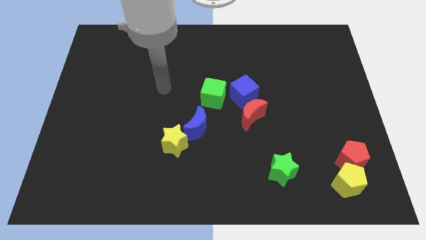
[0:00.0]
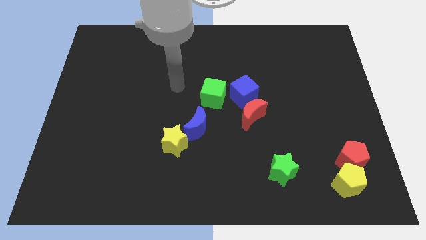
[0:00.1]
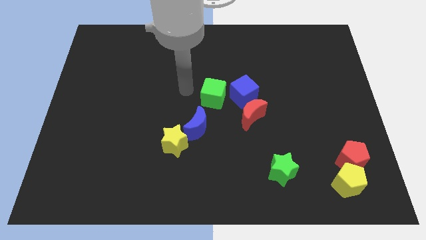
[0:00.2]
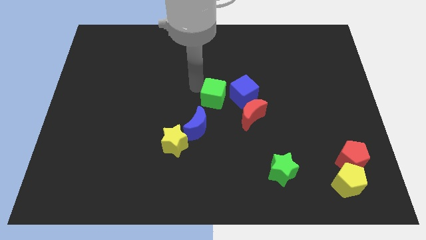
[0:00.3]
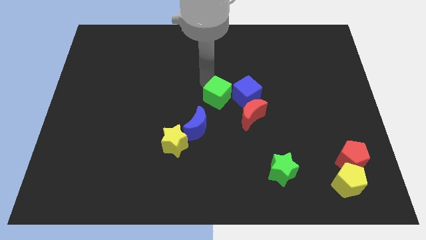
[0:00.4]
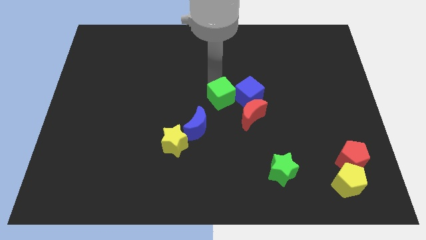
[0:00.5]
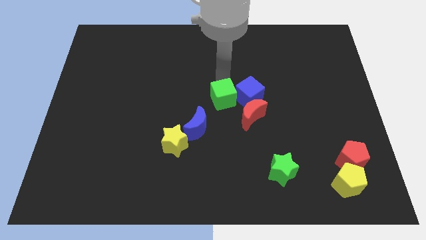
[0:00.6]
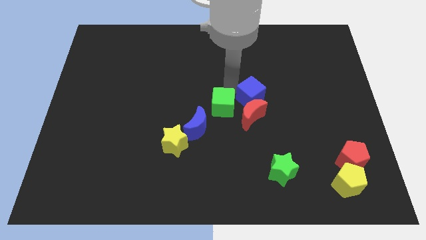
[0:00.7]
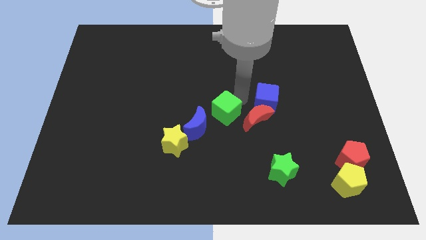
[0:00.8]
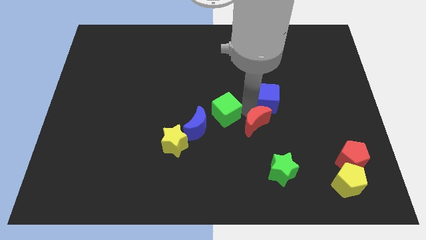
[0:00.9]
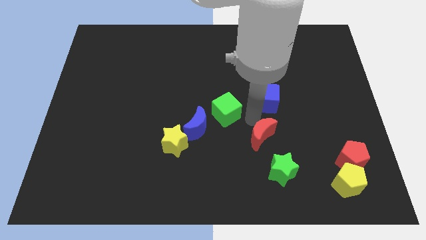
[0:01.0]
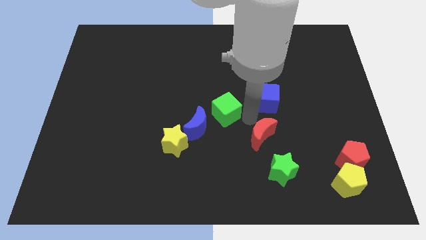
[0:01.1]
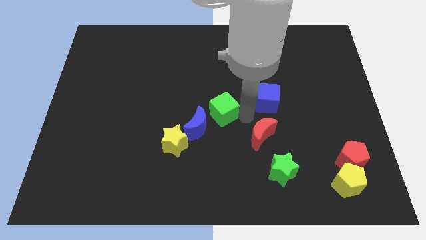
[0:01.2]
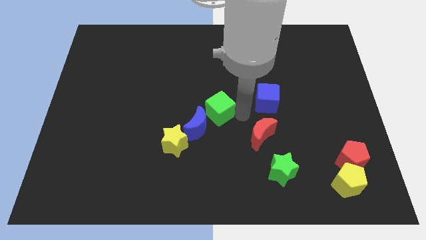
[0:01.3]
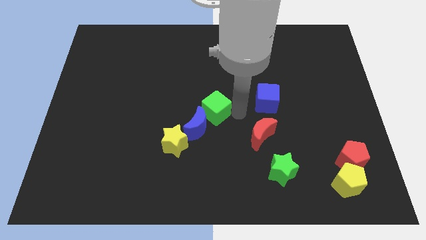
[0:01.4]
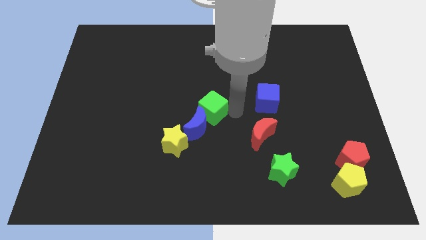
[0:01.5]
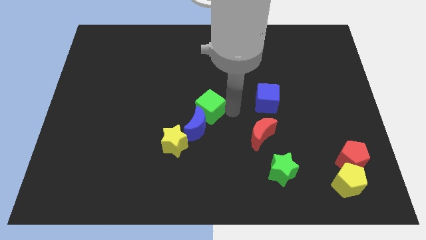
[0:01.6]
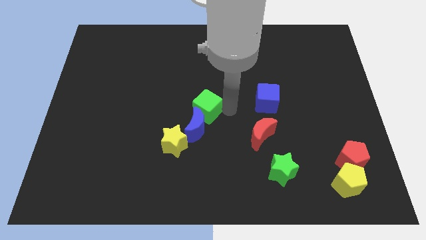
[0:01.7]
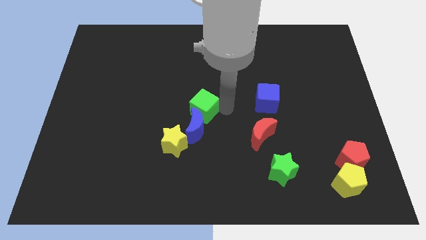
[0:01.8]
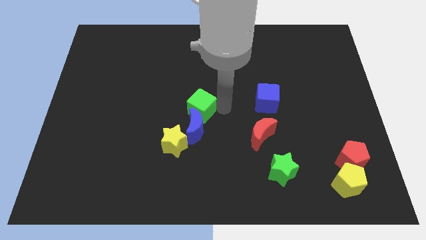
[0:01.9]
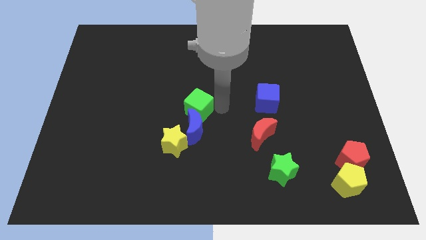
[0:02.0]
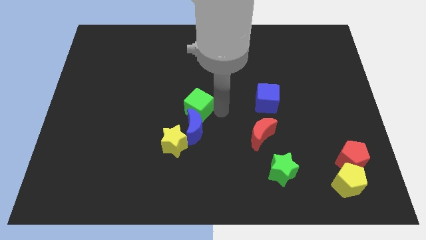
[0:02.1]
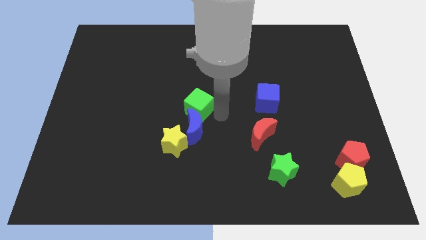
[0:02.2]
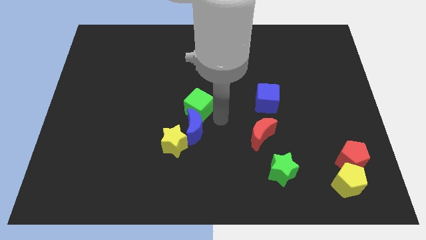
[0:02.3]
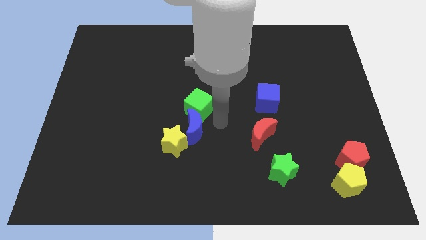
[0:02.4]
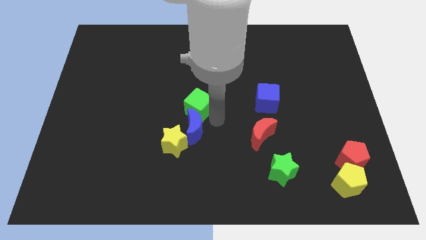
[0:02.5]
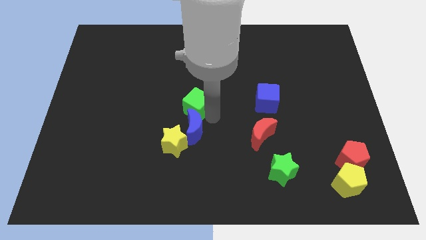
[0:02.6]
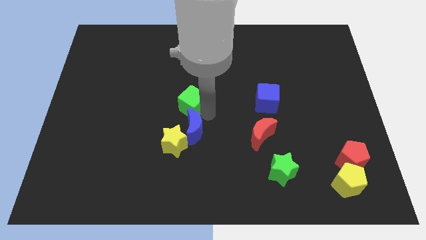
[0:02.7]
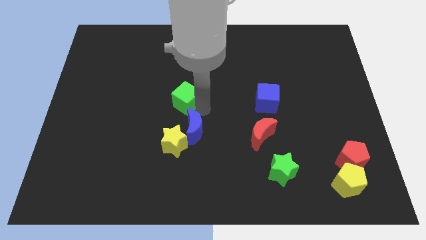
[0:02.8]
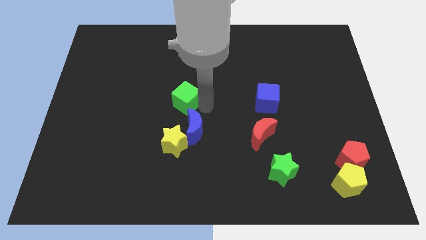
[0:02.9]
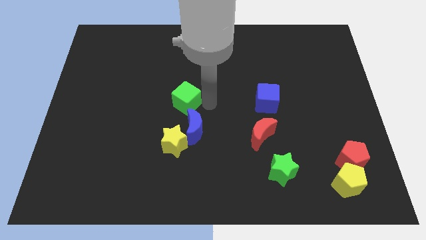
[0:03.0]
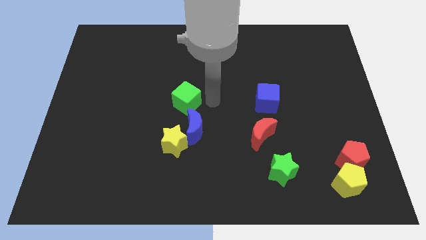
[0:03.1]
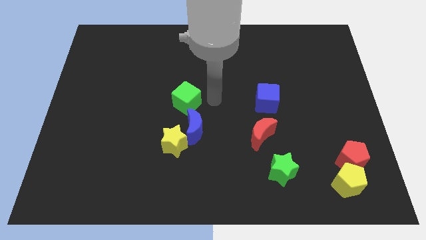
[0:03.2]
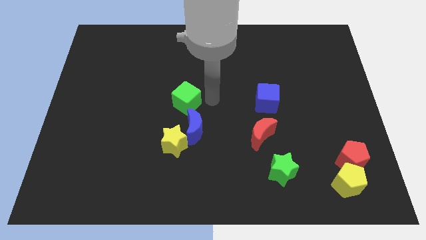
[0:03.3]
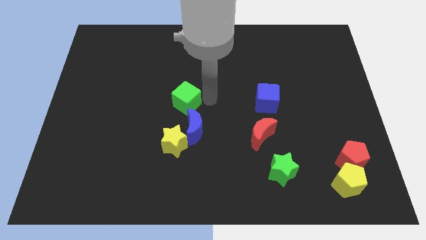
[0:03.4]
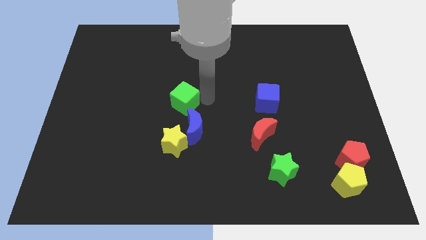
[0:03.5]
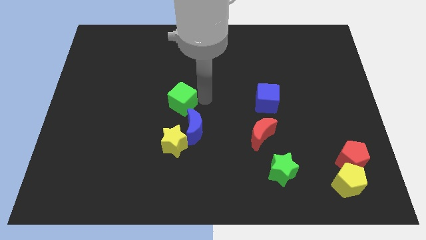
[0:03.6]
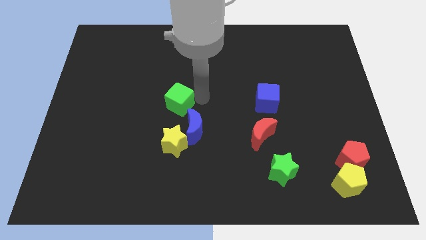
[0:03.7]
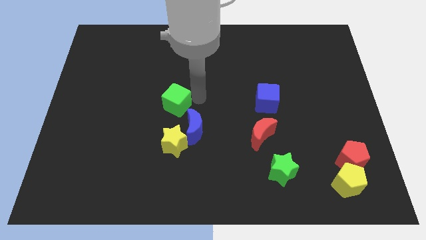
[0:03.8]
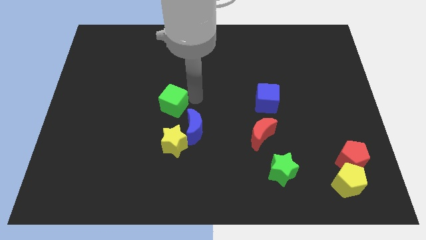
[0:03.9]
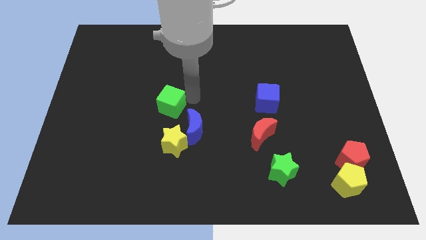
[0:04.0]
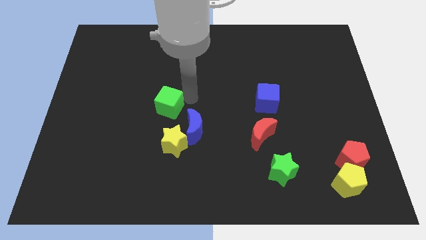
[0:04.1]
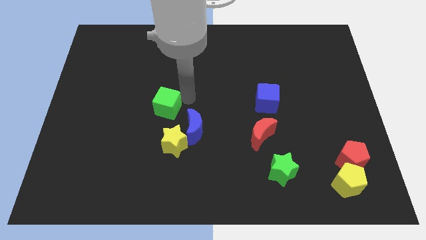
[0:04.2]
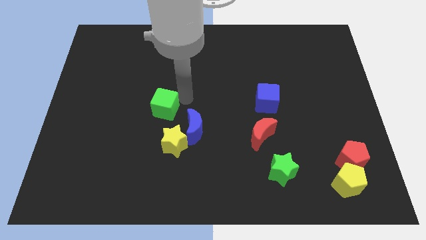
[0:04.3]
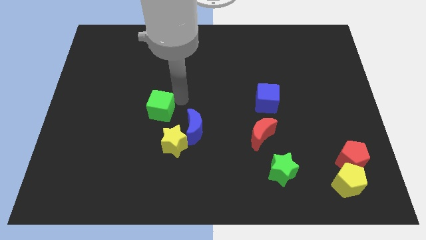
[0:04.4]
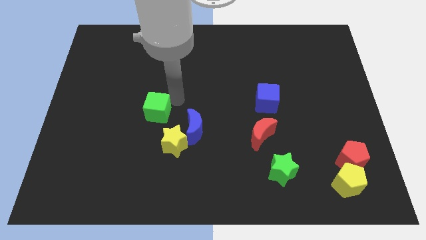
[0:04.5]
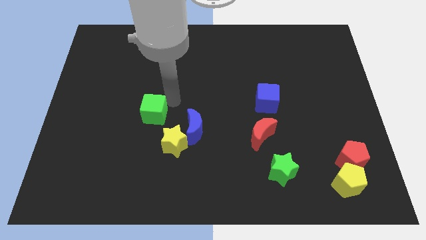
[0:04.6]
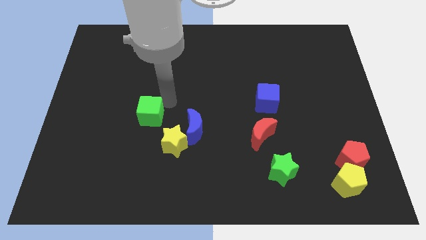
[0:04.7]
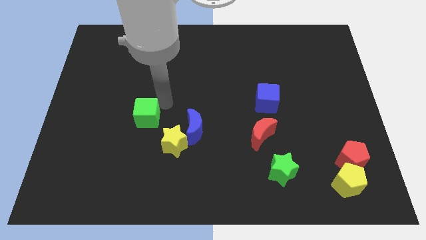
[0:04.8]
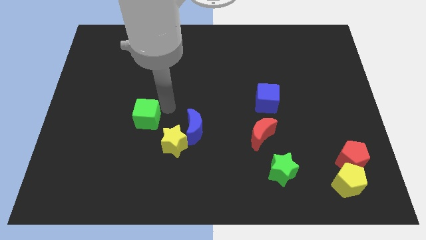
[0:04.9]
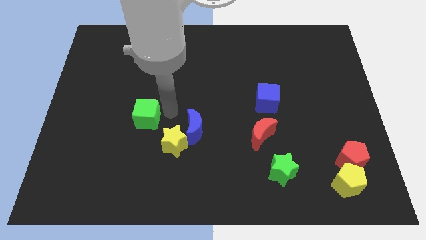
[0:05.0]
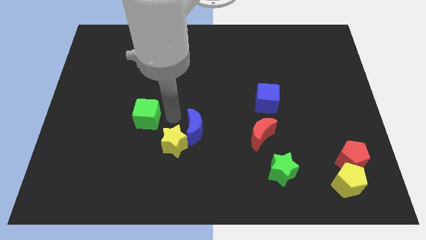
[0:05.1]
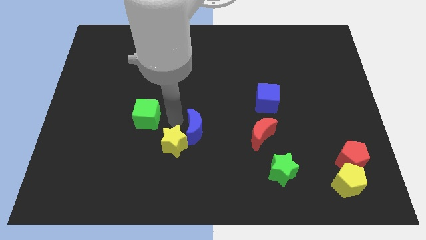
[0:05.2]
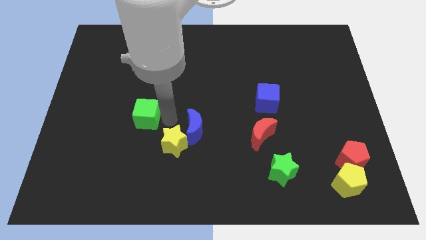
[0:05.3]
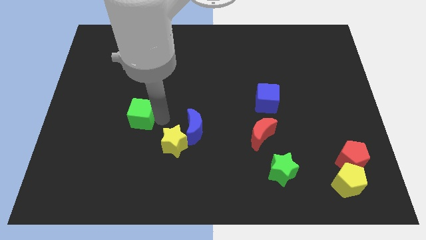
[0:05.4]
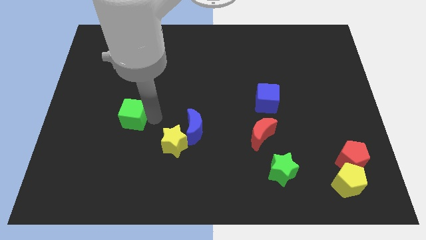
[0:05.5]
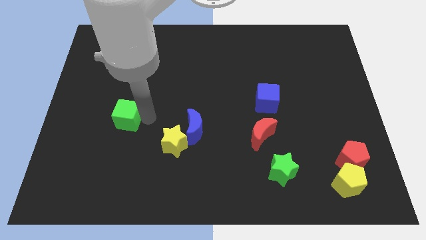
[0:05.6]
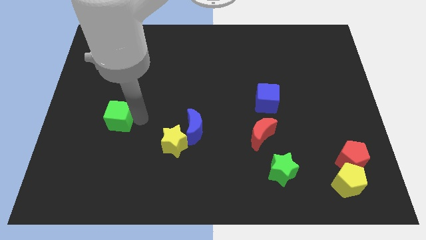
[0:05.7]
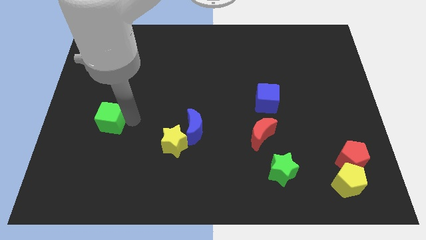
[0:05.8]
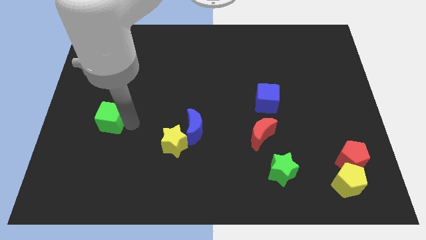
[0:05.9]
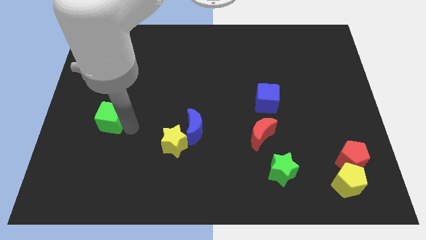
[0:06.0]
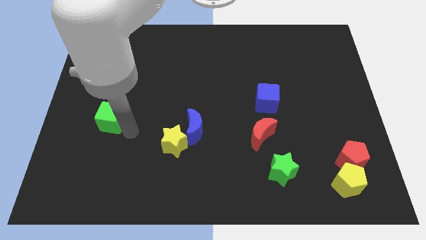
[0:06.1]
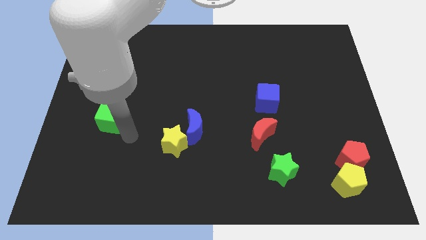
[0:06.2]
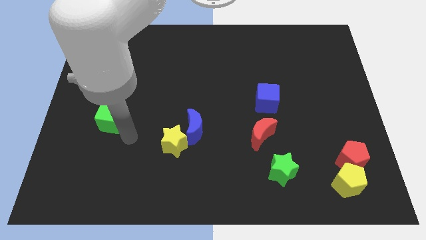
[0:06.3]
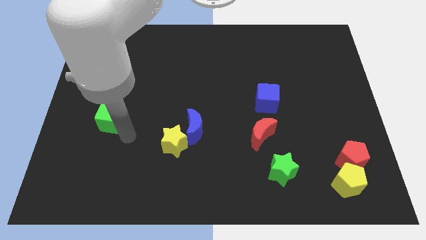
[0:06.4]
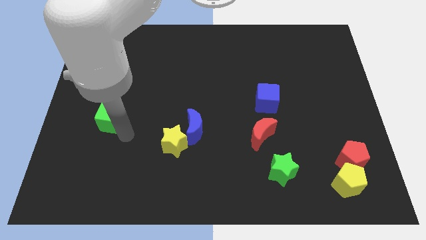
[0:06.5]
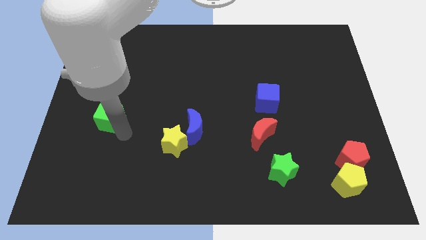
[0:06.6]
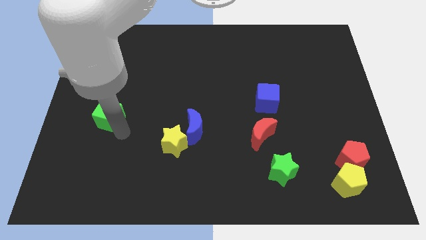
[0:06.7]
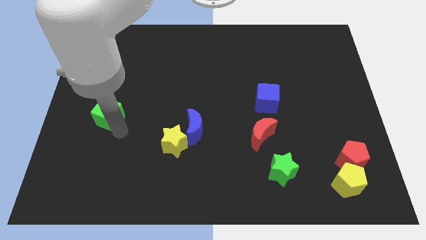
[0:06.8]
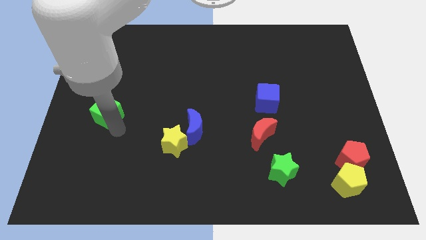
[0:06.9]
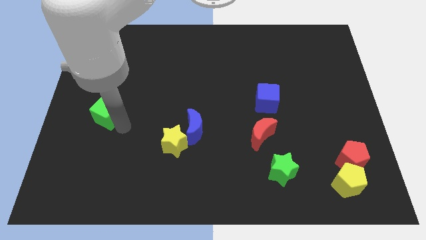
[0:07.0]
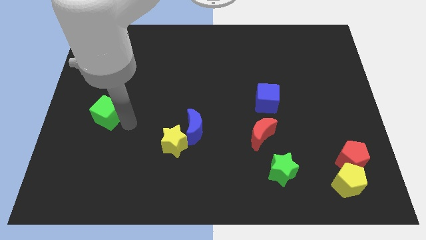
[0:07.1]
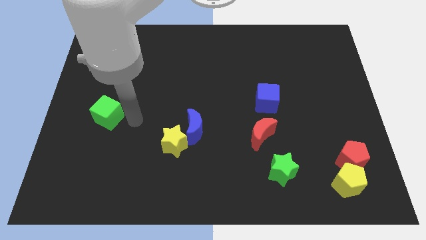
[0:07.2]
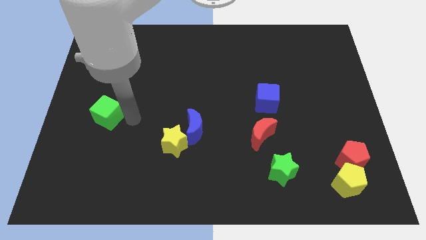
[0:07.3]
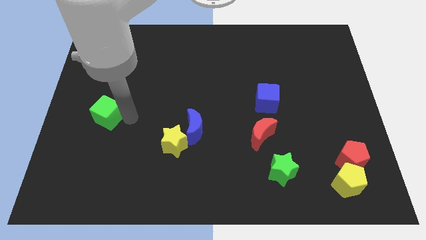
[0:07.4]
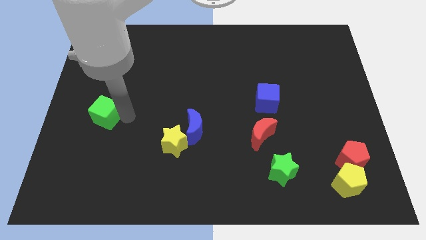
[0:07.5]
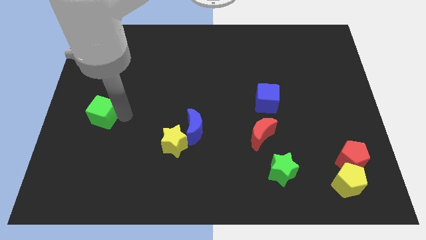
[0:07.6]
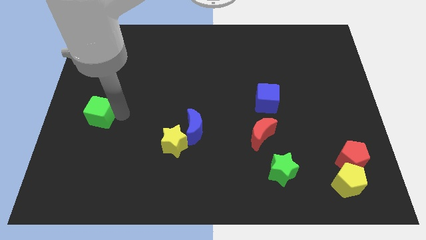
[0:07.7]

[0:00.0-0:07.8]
slide the green cube to the left side

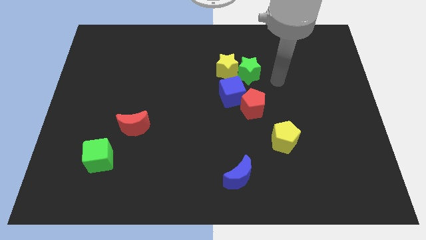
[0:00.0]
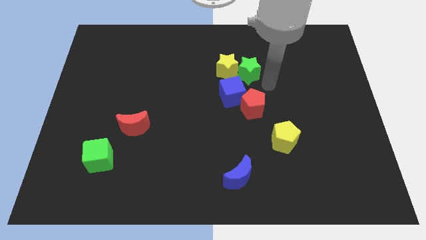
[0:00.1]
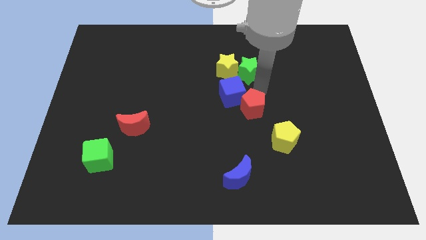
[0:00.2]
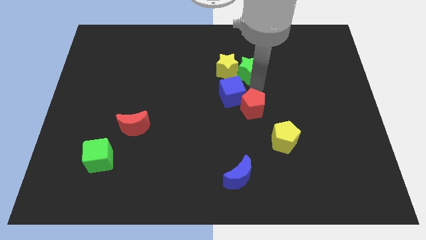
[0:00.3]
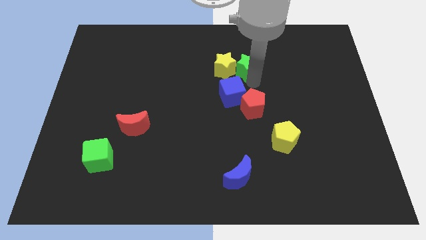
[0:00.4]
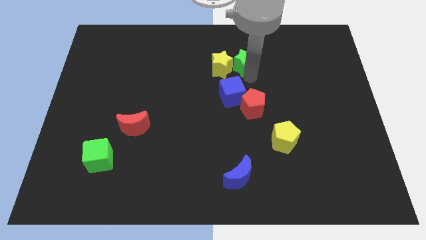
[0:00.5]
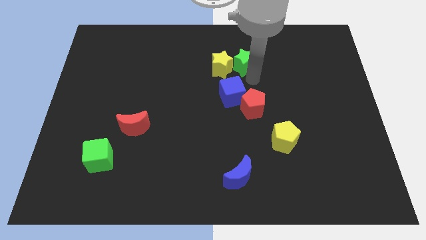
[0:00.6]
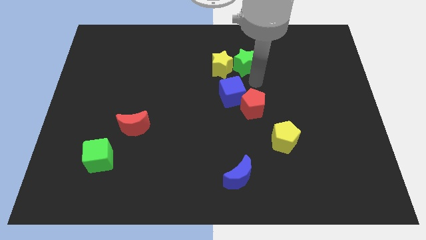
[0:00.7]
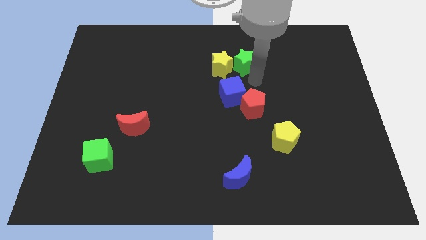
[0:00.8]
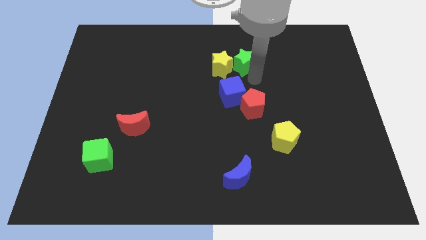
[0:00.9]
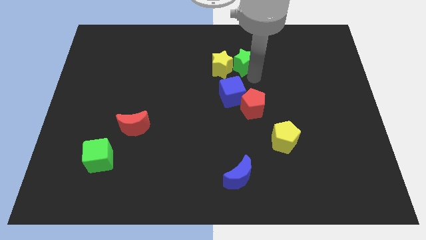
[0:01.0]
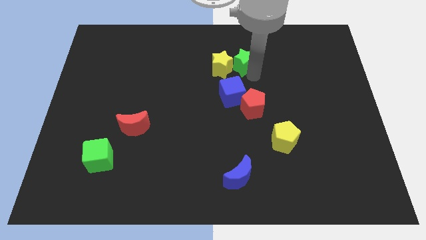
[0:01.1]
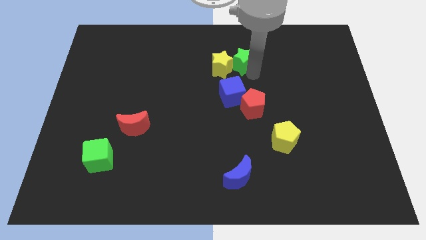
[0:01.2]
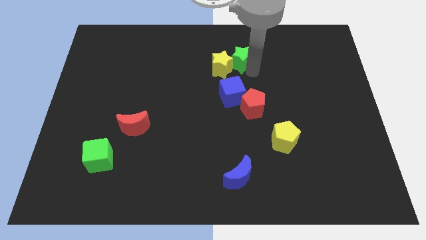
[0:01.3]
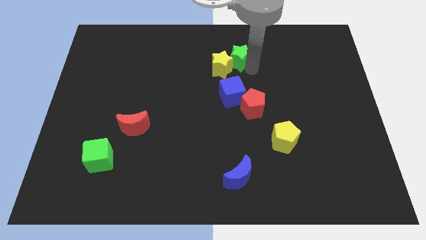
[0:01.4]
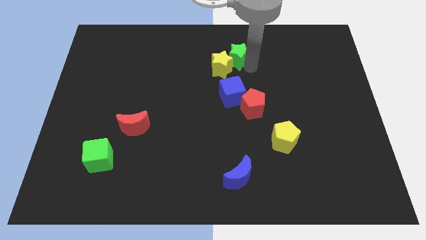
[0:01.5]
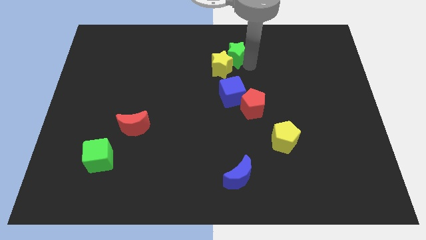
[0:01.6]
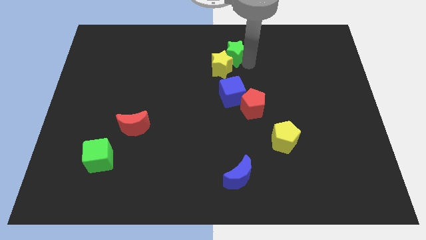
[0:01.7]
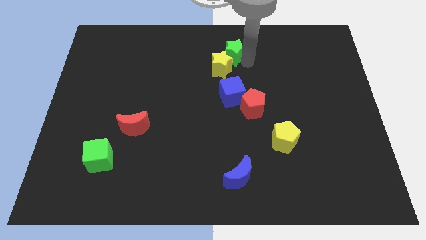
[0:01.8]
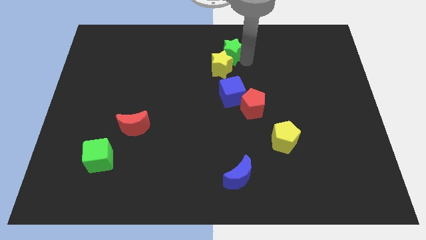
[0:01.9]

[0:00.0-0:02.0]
push the green star to the towards your base
